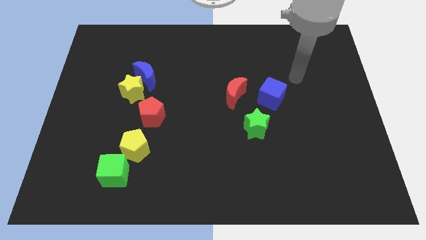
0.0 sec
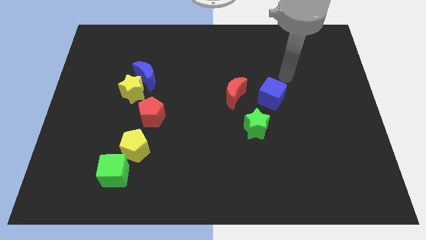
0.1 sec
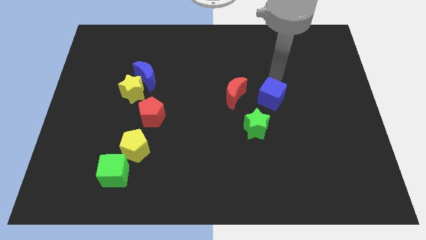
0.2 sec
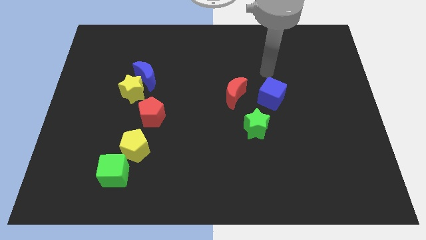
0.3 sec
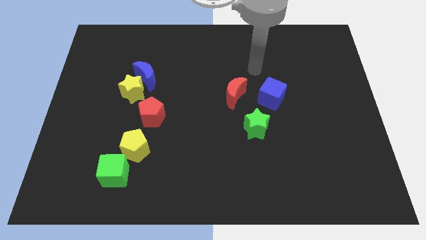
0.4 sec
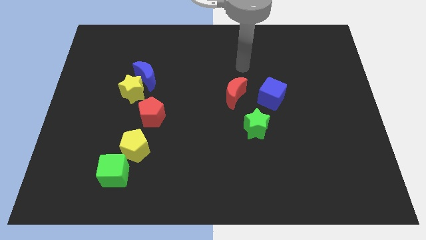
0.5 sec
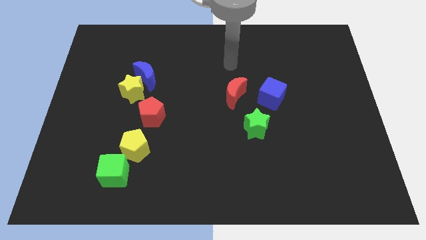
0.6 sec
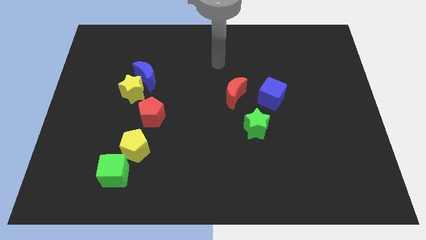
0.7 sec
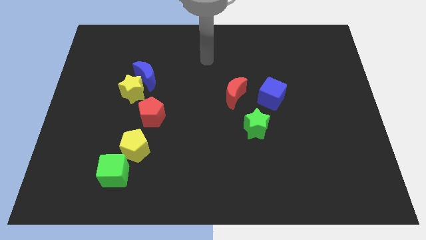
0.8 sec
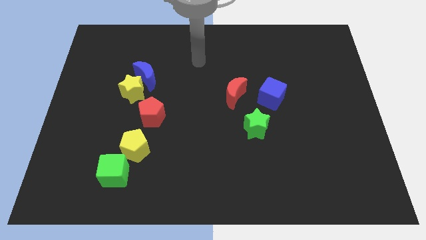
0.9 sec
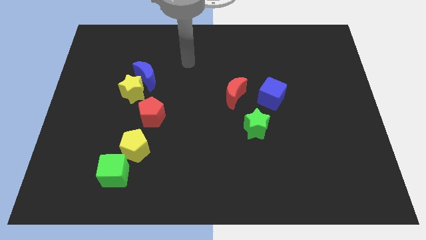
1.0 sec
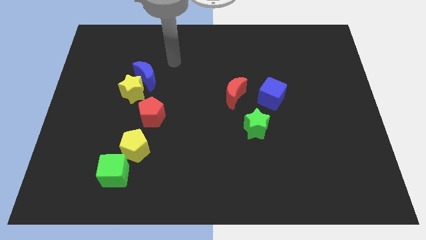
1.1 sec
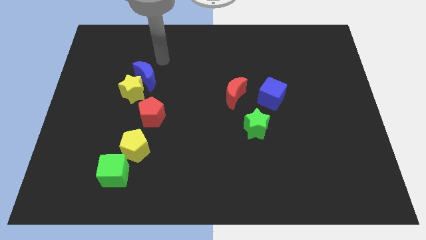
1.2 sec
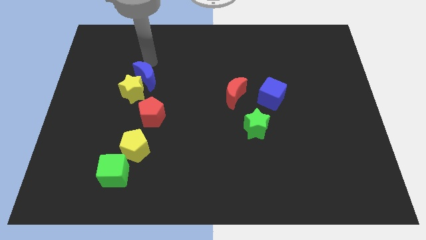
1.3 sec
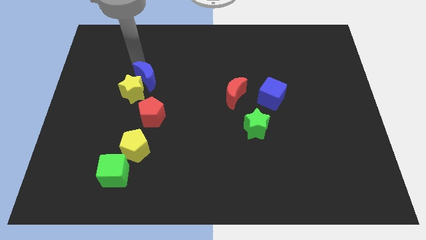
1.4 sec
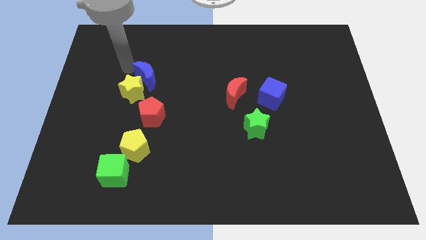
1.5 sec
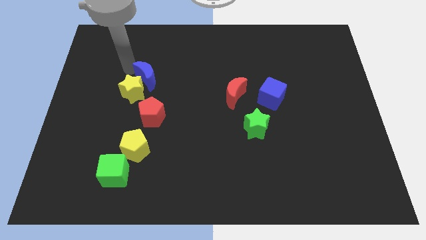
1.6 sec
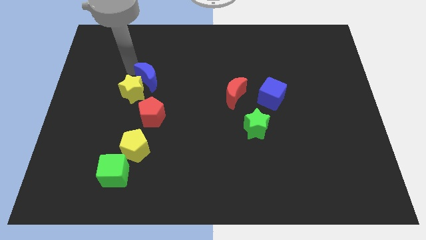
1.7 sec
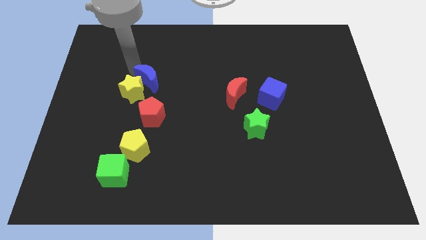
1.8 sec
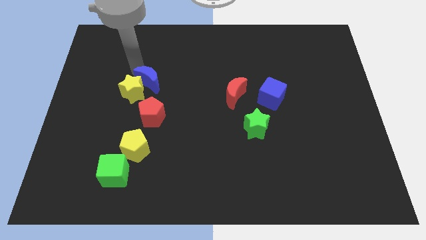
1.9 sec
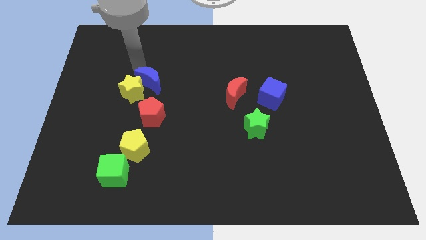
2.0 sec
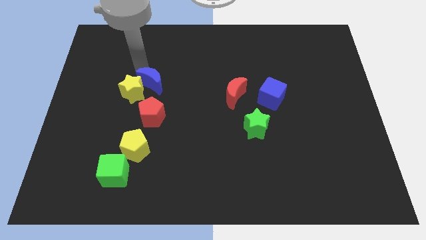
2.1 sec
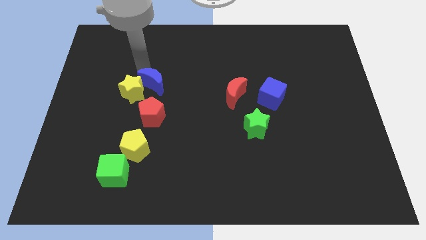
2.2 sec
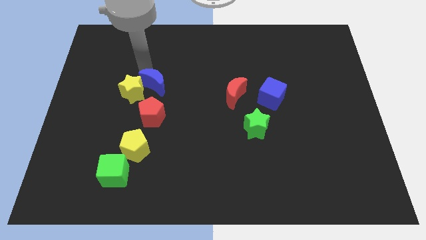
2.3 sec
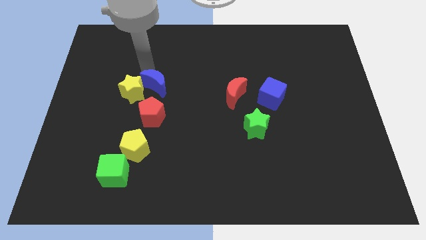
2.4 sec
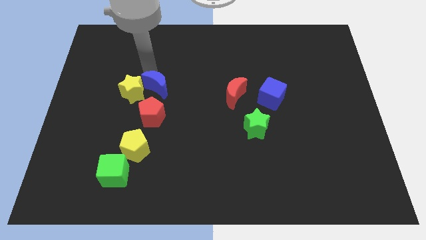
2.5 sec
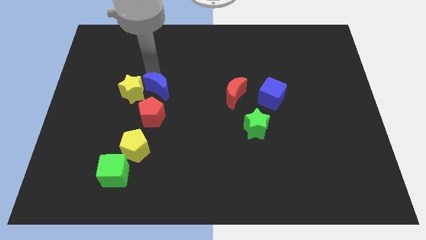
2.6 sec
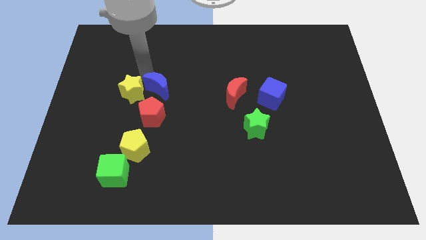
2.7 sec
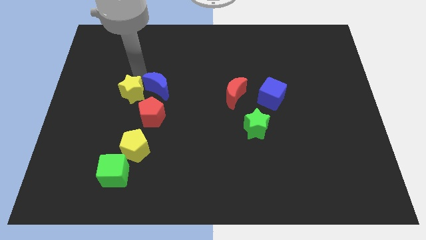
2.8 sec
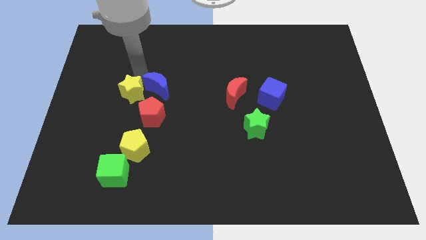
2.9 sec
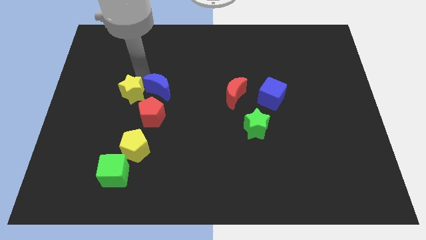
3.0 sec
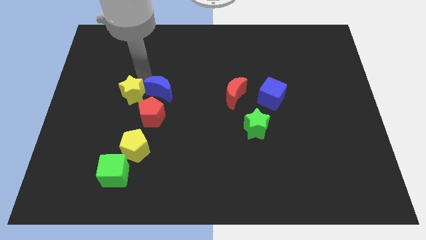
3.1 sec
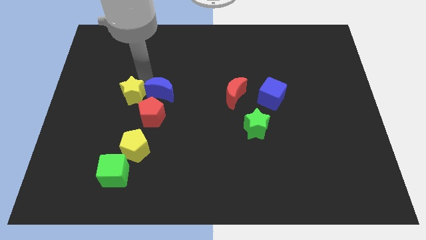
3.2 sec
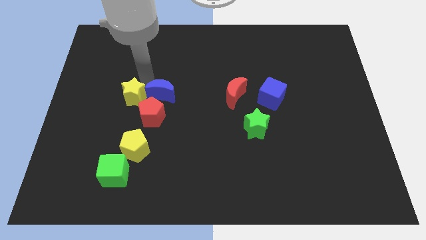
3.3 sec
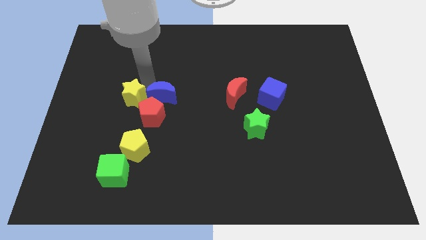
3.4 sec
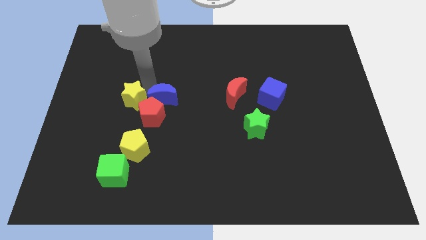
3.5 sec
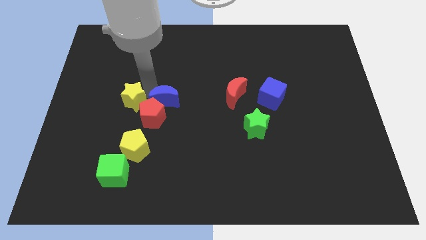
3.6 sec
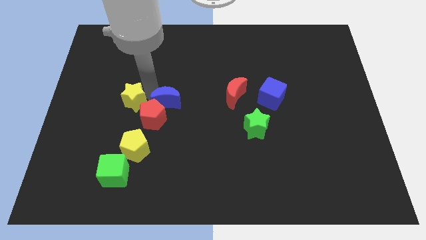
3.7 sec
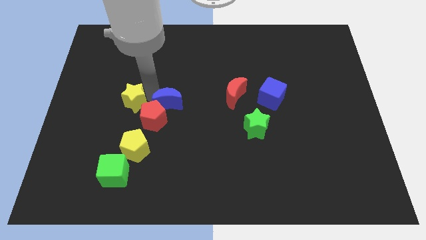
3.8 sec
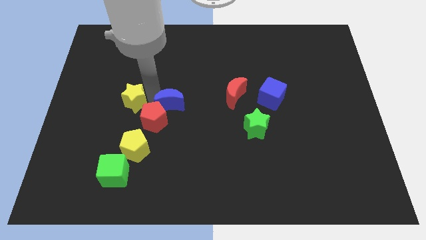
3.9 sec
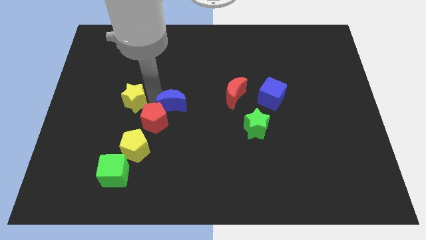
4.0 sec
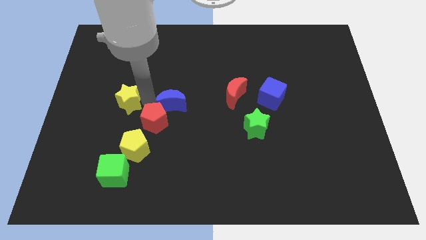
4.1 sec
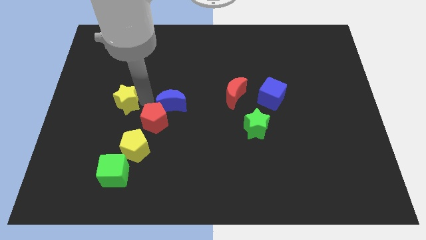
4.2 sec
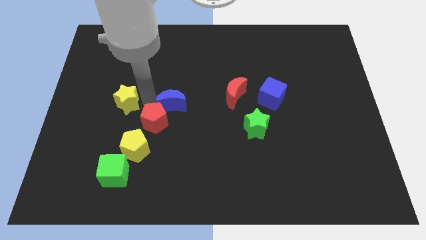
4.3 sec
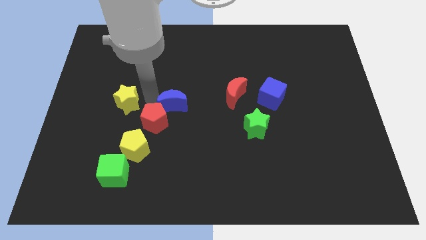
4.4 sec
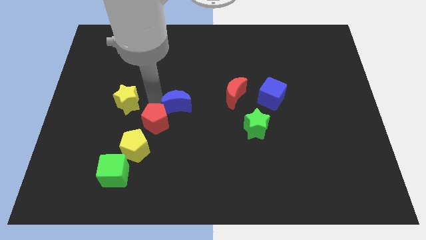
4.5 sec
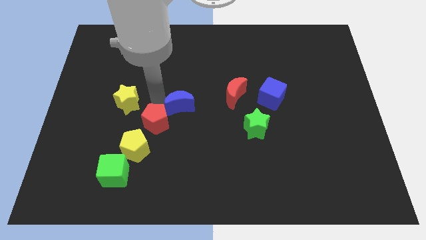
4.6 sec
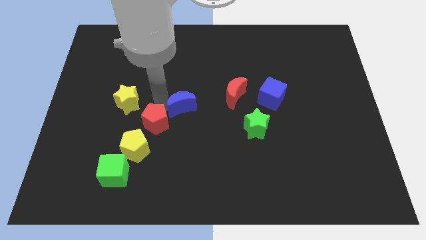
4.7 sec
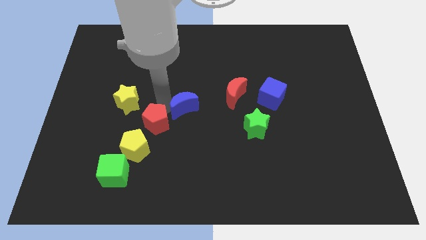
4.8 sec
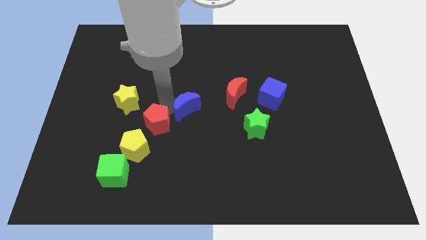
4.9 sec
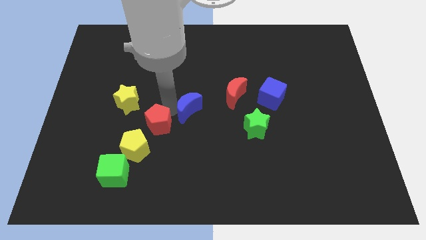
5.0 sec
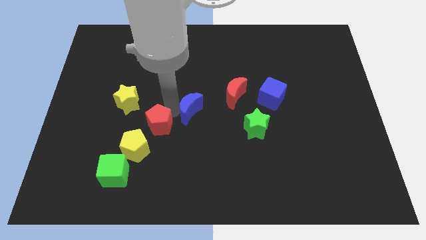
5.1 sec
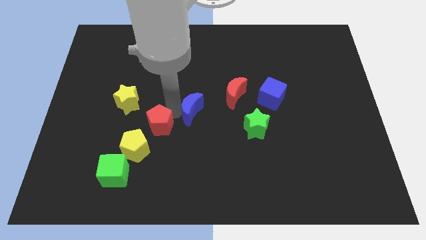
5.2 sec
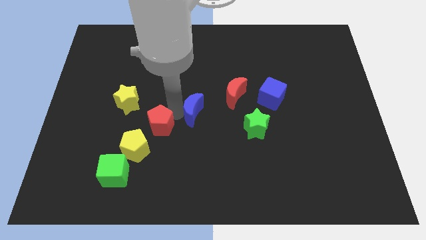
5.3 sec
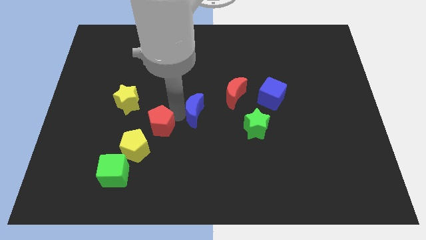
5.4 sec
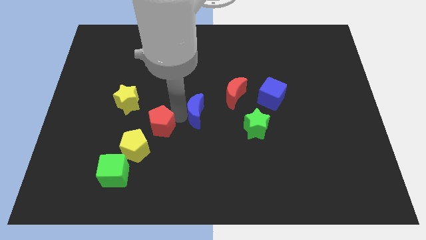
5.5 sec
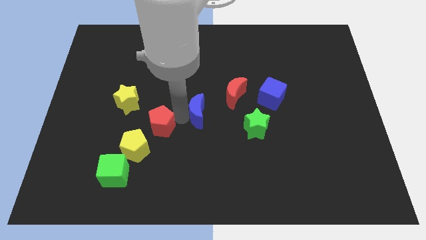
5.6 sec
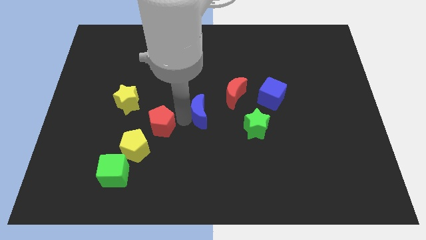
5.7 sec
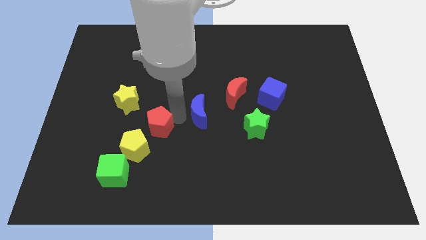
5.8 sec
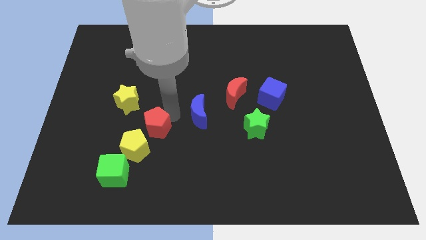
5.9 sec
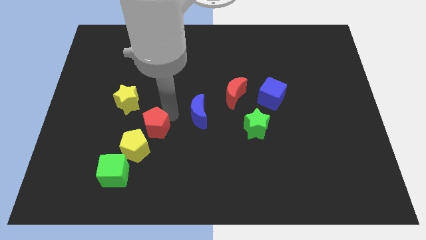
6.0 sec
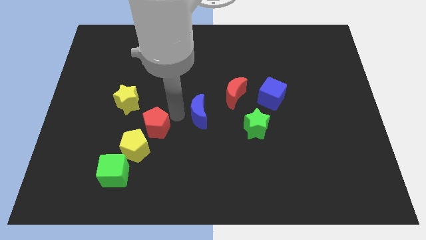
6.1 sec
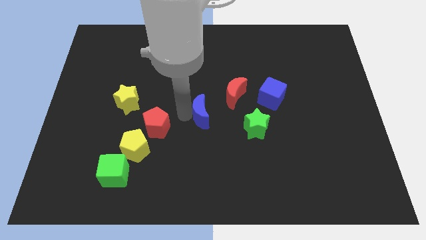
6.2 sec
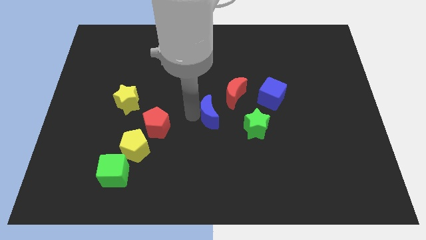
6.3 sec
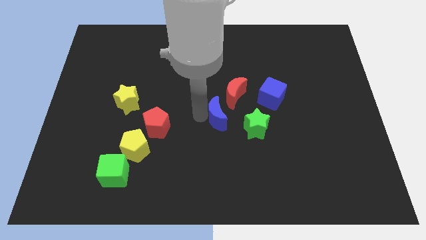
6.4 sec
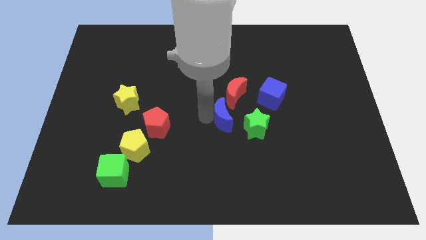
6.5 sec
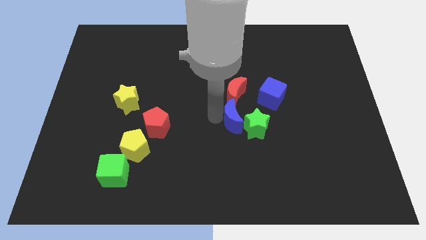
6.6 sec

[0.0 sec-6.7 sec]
put the blue moon close to the green star
